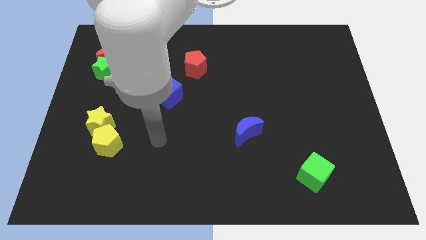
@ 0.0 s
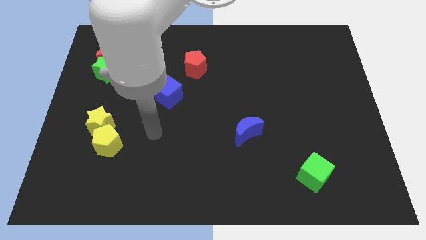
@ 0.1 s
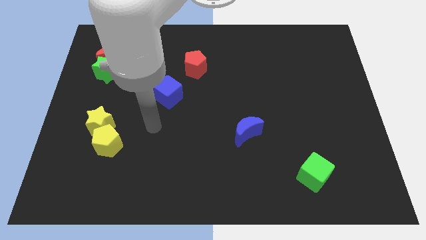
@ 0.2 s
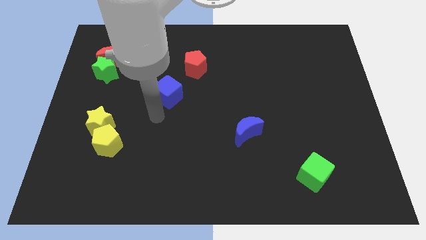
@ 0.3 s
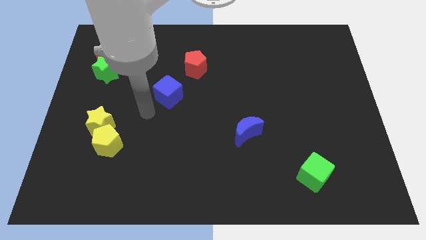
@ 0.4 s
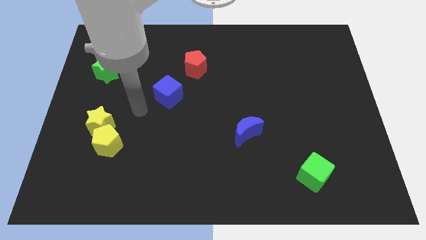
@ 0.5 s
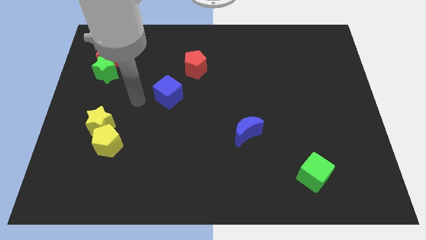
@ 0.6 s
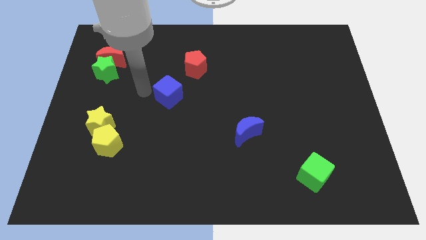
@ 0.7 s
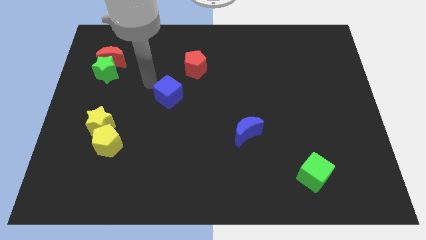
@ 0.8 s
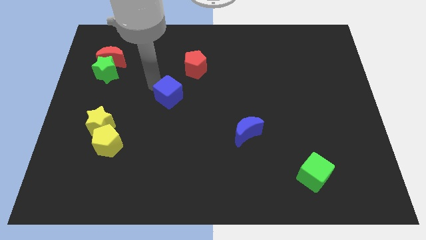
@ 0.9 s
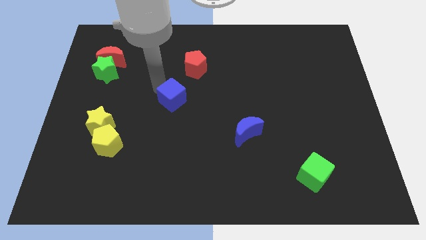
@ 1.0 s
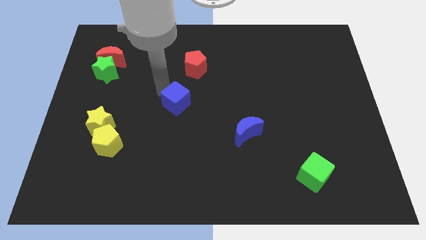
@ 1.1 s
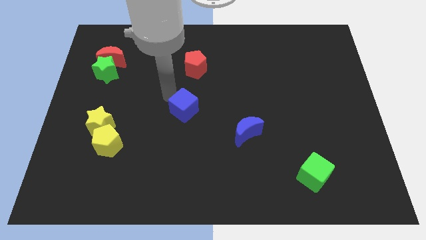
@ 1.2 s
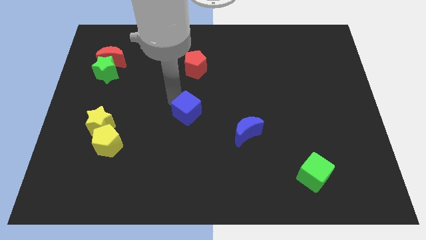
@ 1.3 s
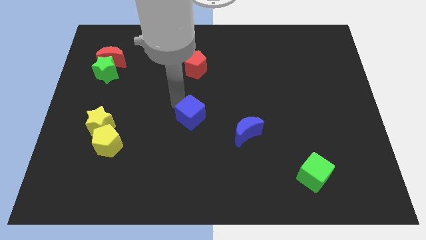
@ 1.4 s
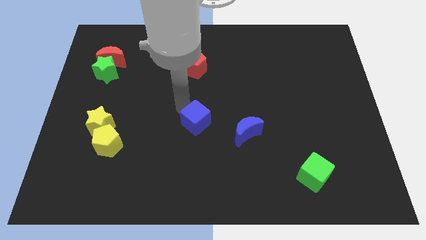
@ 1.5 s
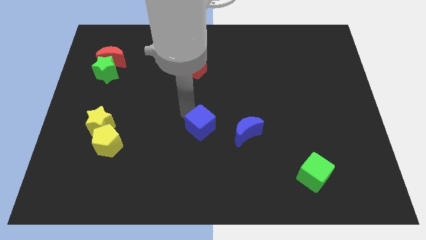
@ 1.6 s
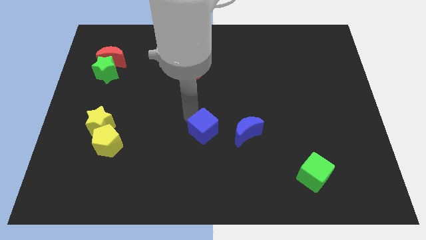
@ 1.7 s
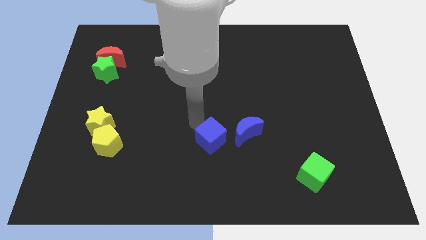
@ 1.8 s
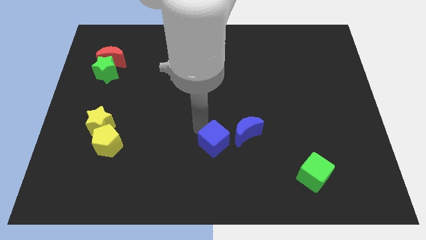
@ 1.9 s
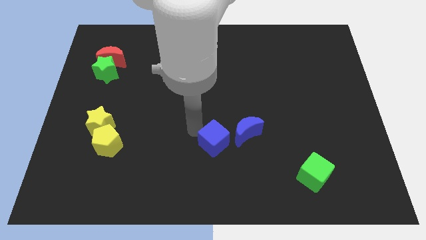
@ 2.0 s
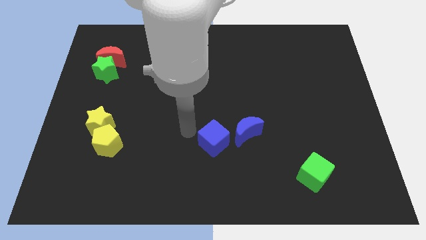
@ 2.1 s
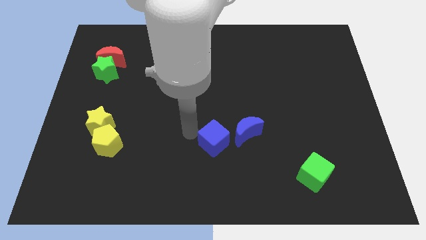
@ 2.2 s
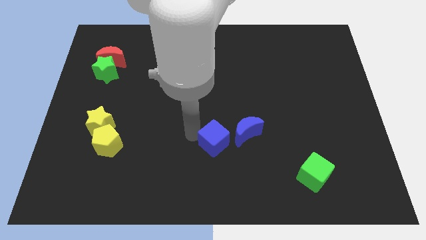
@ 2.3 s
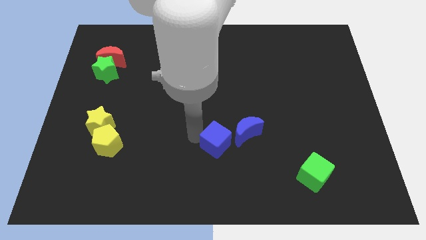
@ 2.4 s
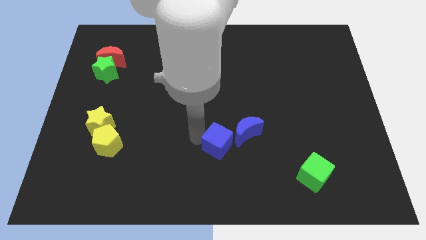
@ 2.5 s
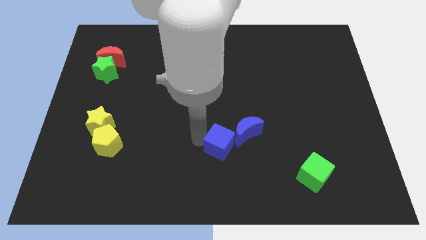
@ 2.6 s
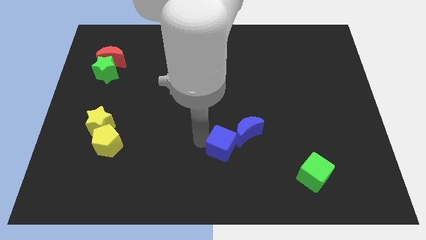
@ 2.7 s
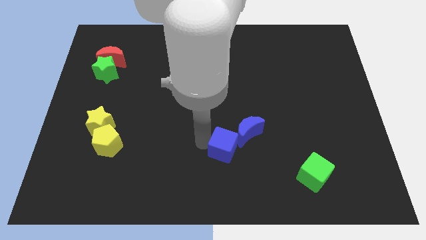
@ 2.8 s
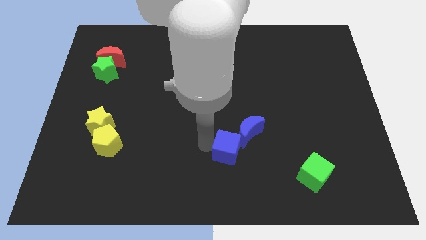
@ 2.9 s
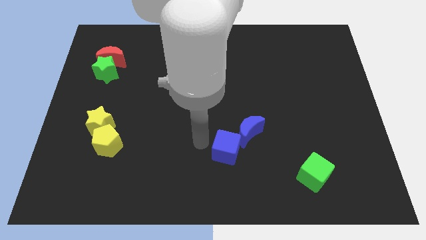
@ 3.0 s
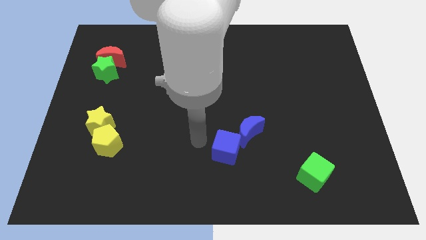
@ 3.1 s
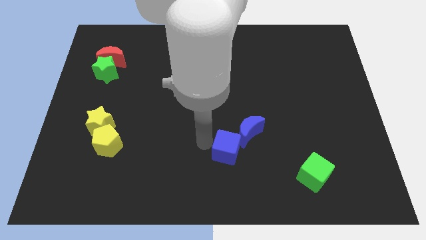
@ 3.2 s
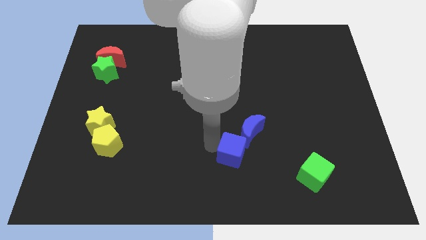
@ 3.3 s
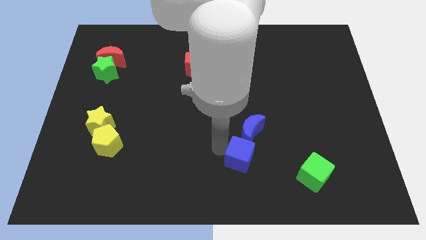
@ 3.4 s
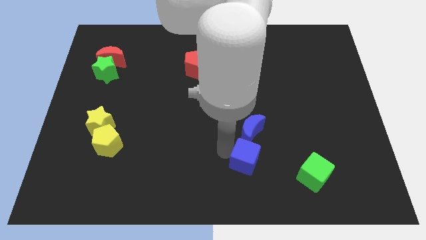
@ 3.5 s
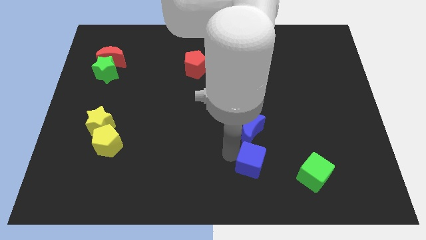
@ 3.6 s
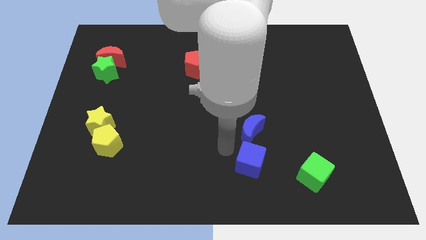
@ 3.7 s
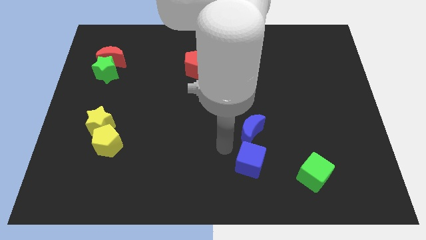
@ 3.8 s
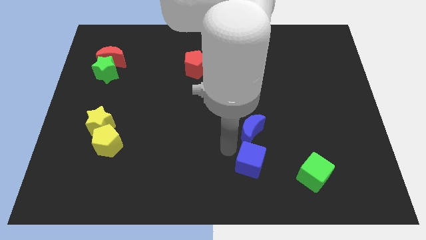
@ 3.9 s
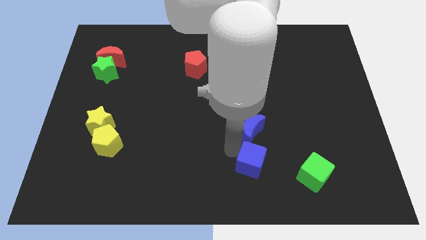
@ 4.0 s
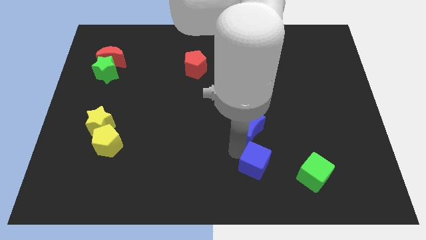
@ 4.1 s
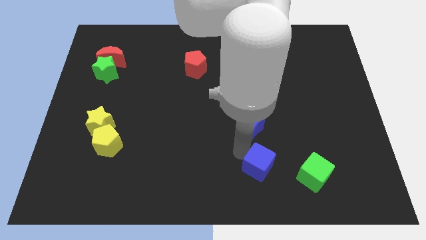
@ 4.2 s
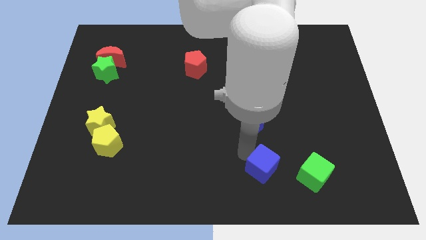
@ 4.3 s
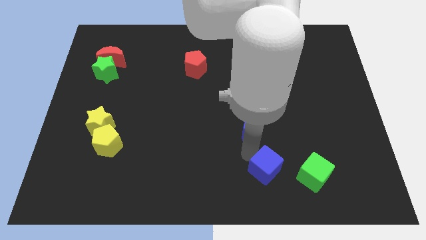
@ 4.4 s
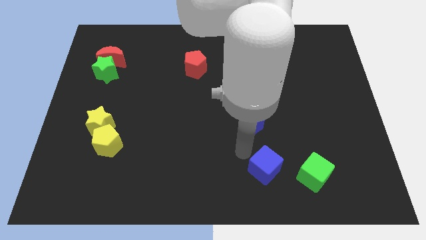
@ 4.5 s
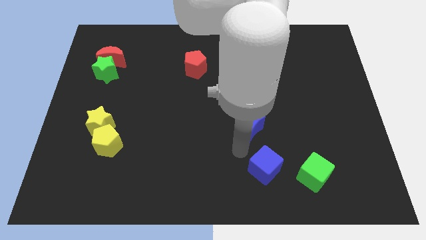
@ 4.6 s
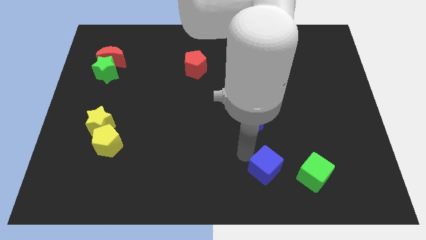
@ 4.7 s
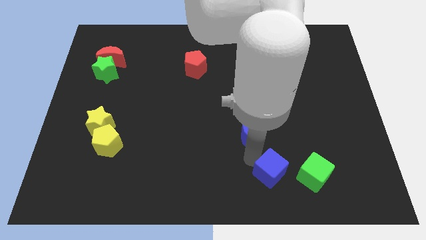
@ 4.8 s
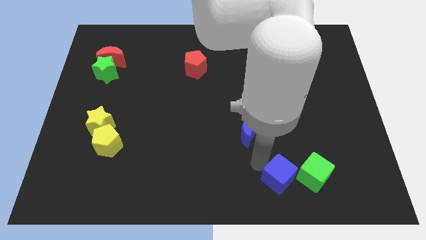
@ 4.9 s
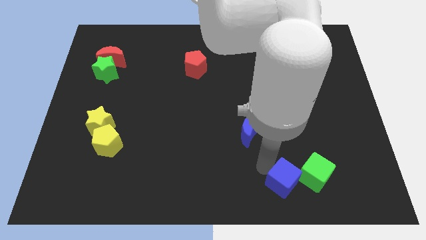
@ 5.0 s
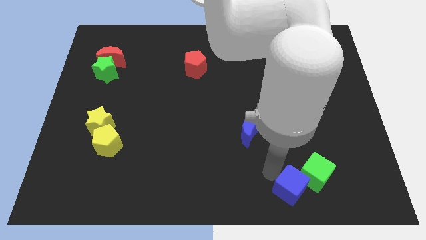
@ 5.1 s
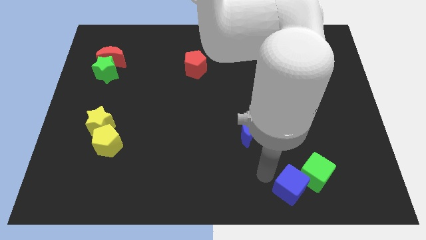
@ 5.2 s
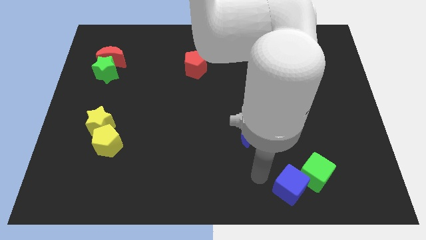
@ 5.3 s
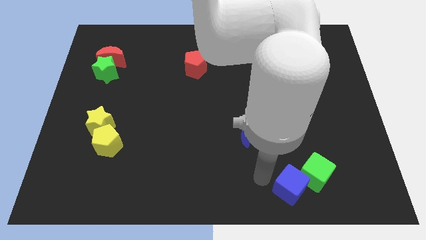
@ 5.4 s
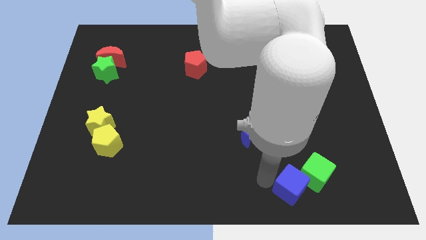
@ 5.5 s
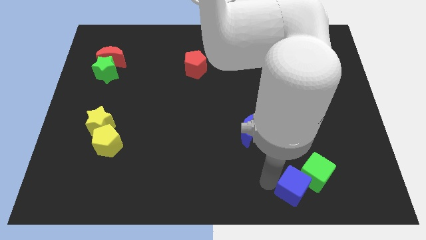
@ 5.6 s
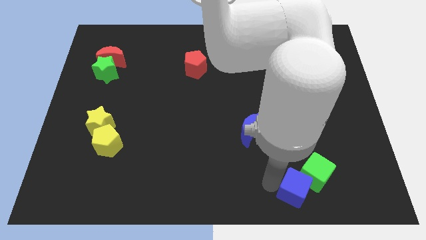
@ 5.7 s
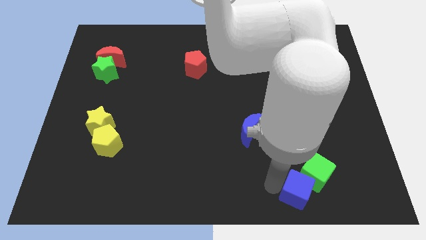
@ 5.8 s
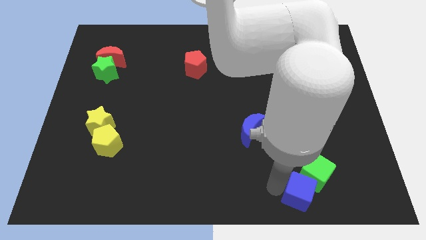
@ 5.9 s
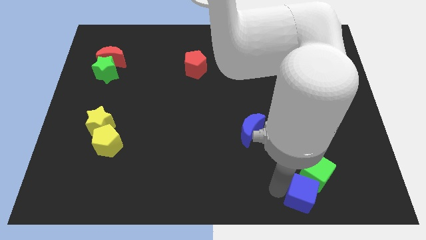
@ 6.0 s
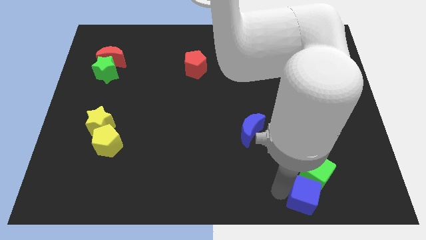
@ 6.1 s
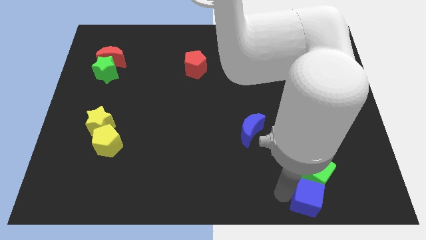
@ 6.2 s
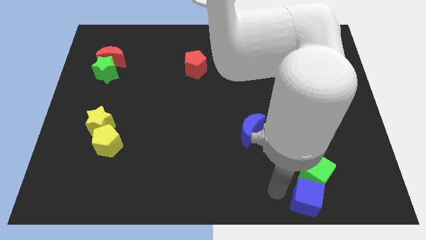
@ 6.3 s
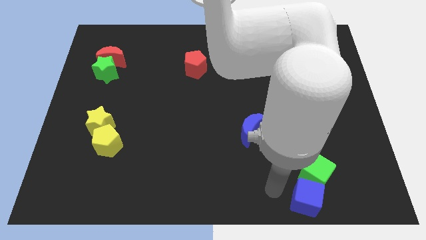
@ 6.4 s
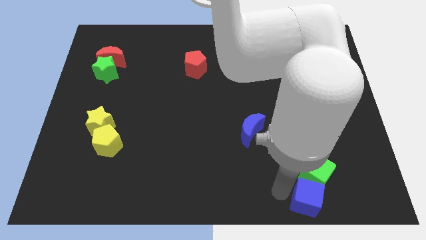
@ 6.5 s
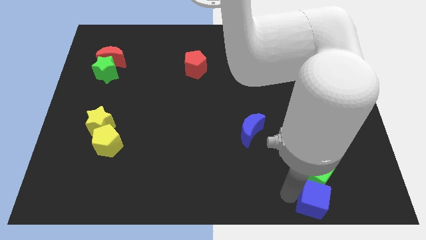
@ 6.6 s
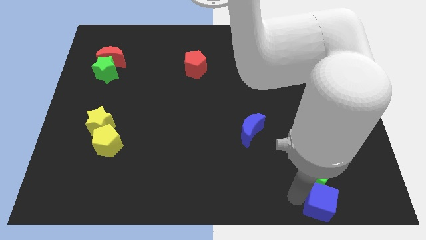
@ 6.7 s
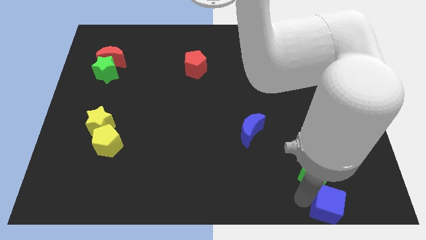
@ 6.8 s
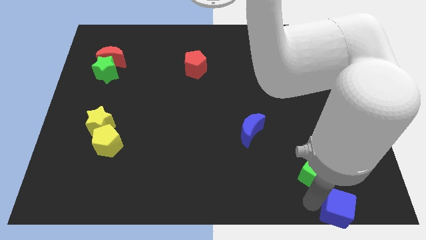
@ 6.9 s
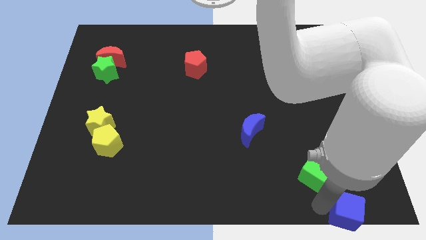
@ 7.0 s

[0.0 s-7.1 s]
move the blue cube to the lower right corner

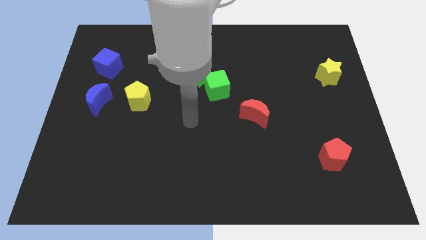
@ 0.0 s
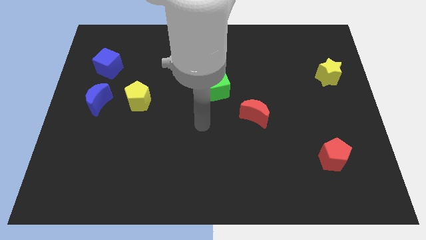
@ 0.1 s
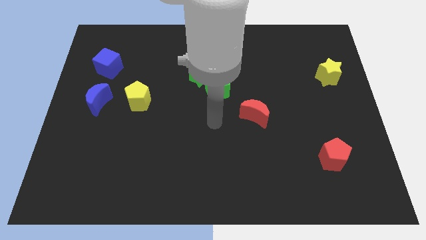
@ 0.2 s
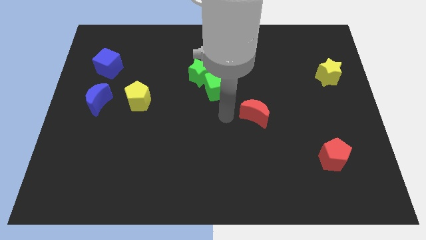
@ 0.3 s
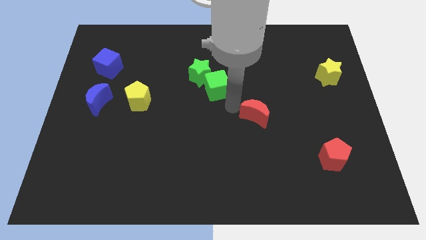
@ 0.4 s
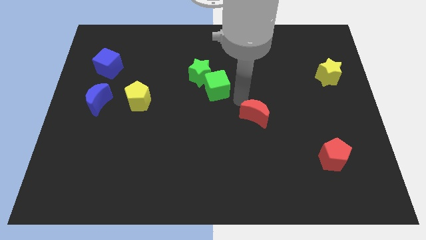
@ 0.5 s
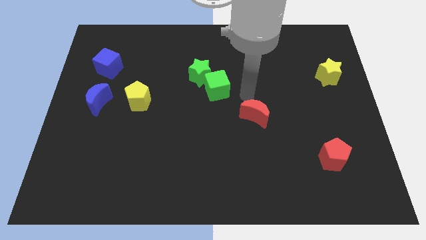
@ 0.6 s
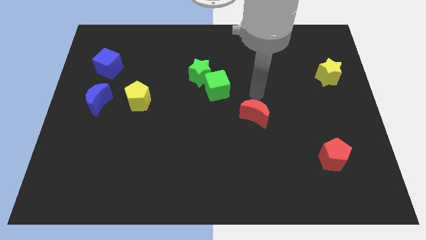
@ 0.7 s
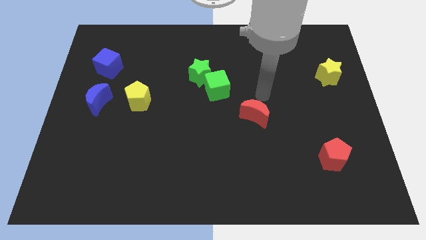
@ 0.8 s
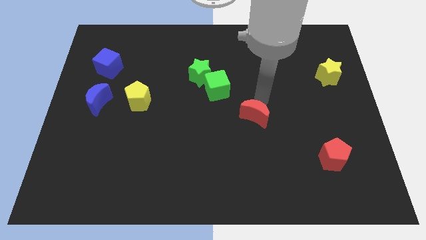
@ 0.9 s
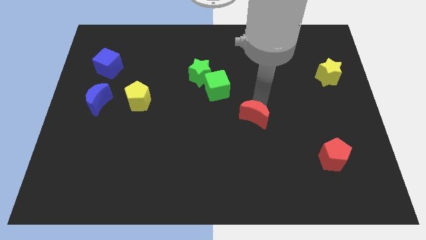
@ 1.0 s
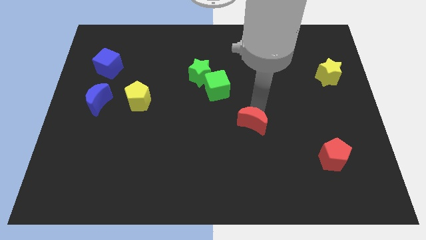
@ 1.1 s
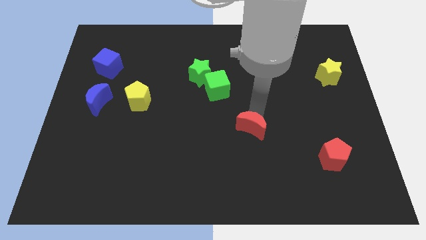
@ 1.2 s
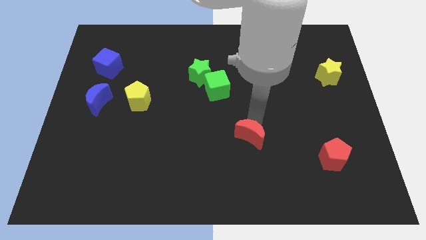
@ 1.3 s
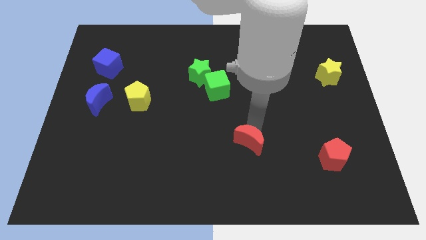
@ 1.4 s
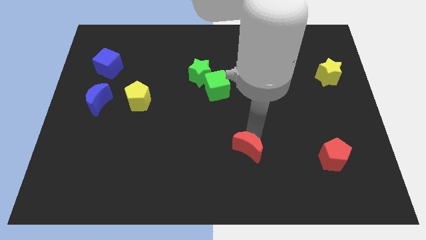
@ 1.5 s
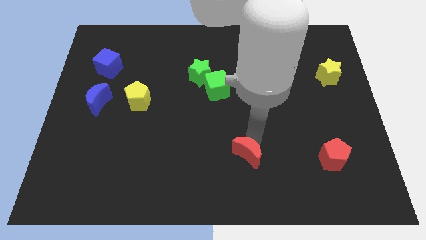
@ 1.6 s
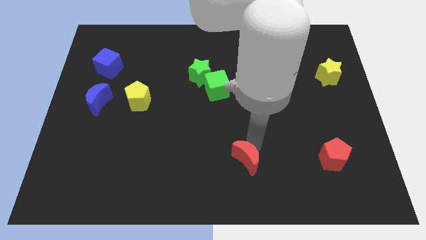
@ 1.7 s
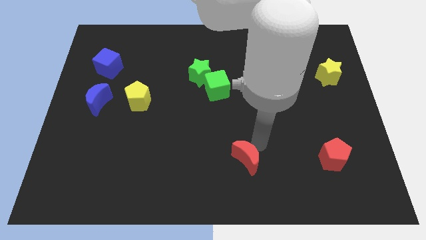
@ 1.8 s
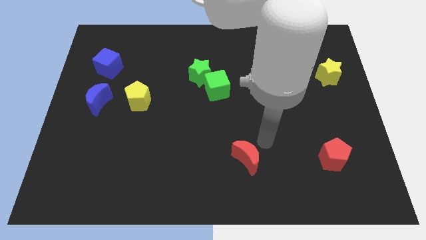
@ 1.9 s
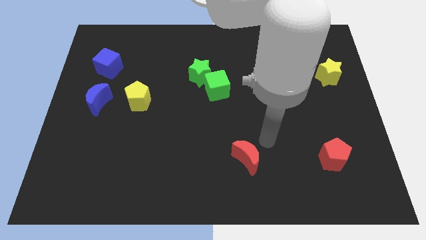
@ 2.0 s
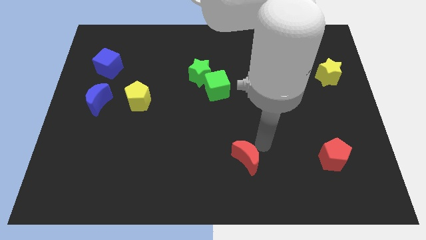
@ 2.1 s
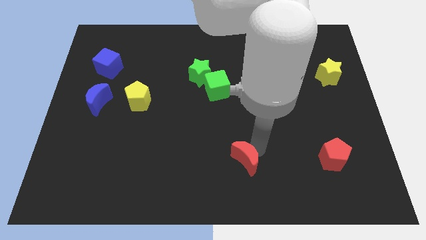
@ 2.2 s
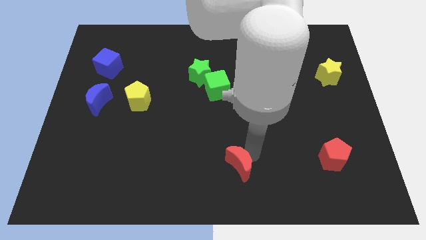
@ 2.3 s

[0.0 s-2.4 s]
move the red moon to the bottom
